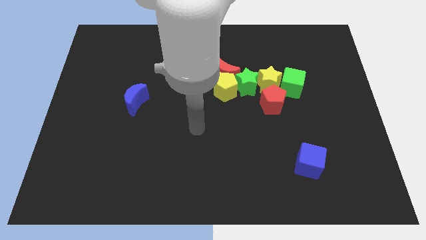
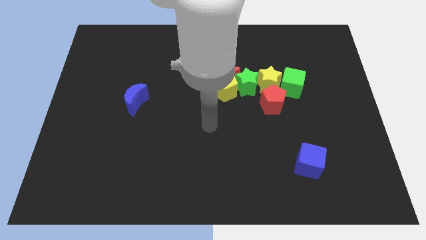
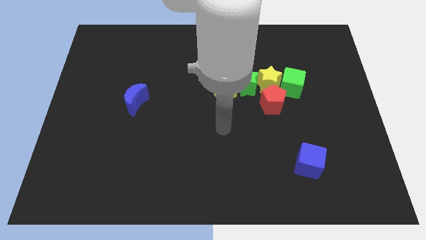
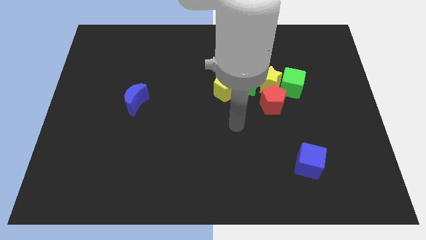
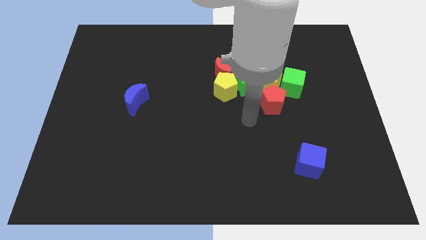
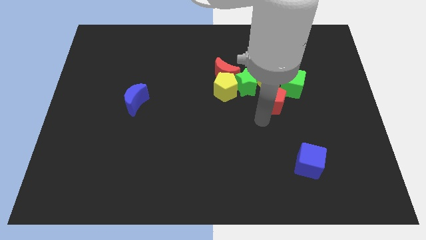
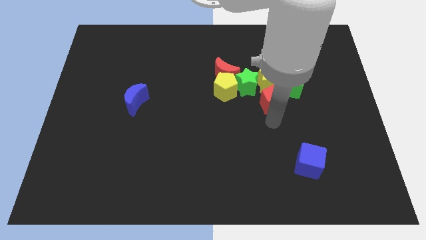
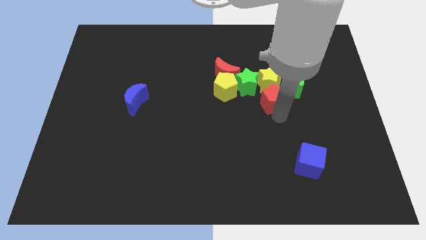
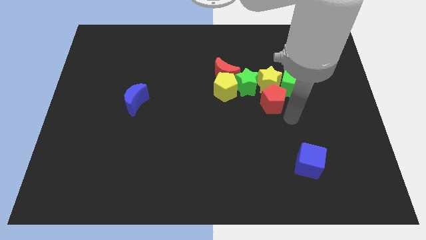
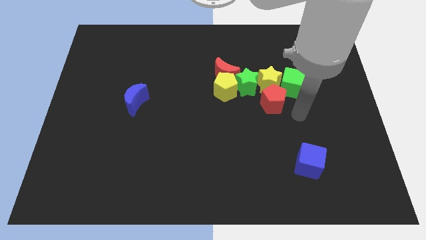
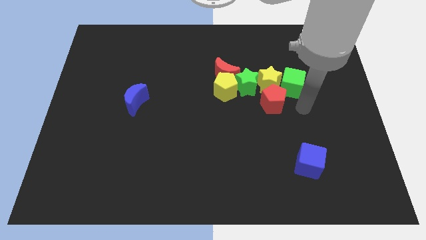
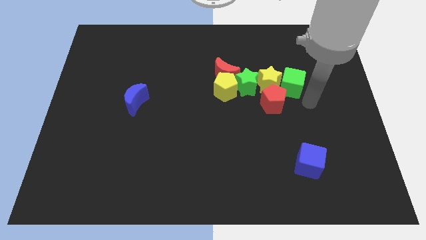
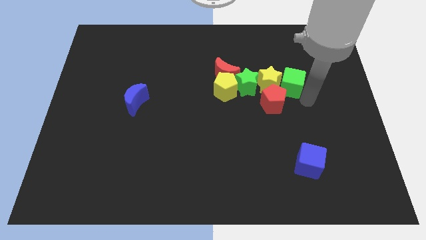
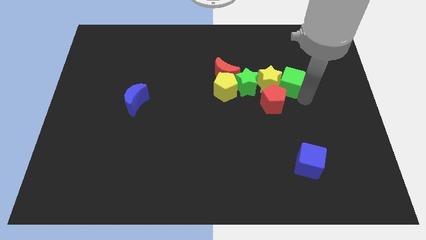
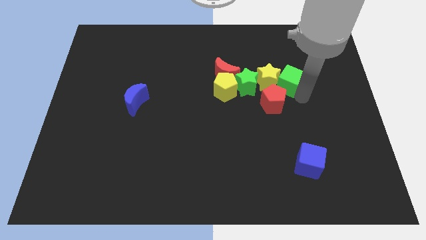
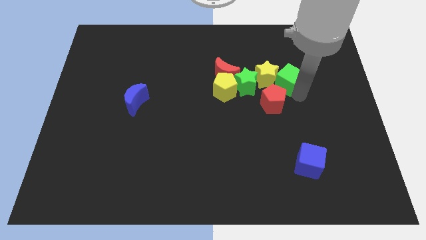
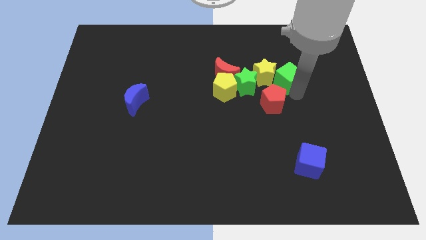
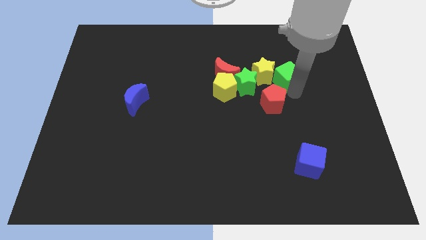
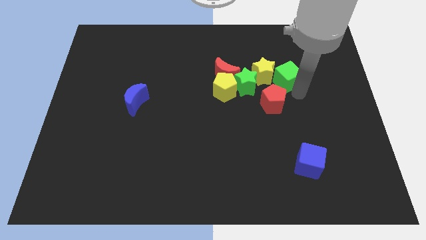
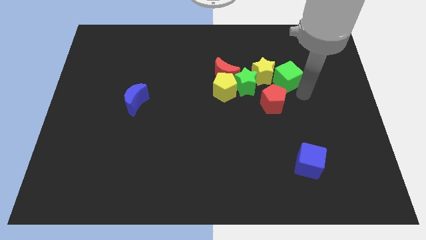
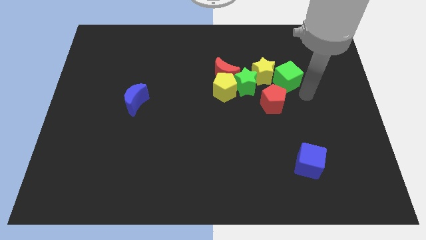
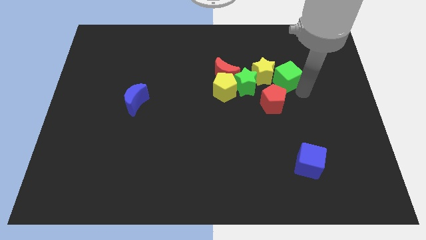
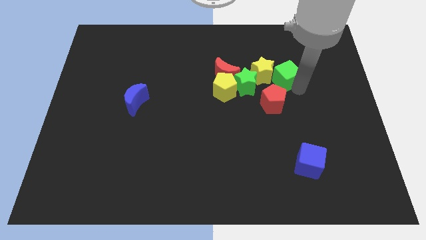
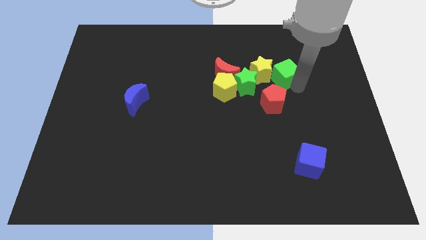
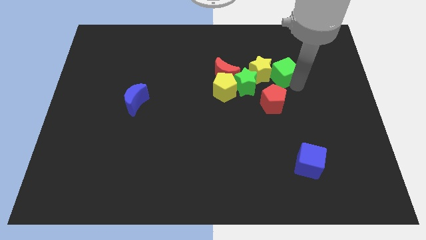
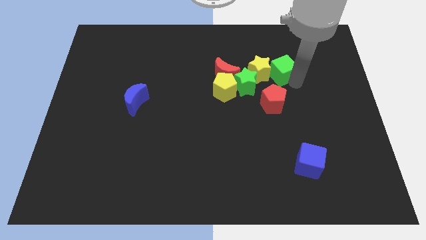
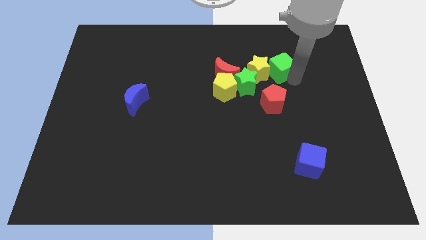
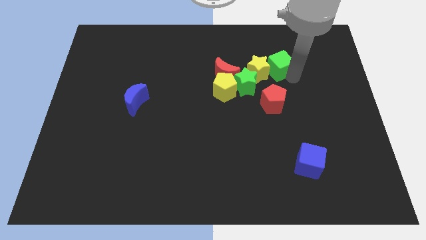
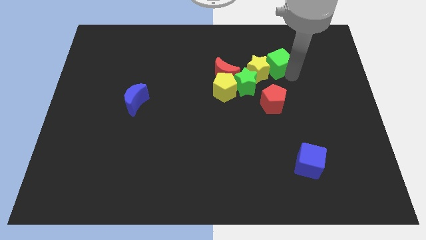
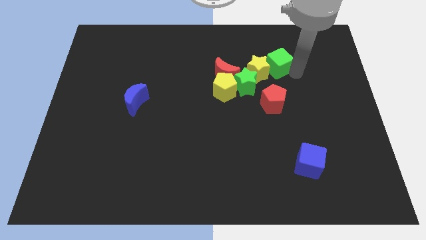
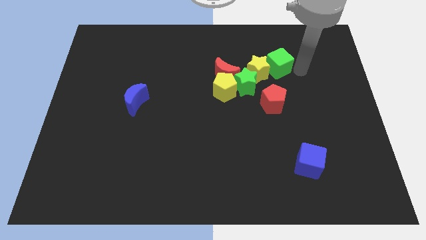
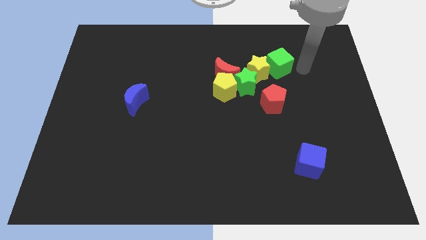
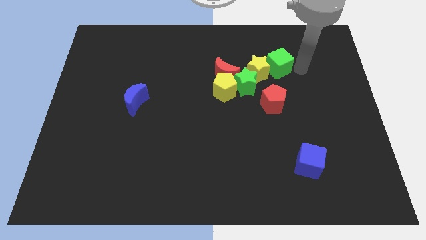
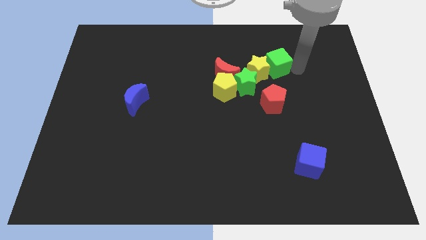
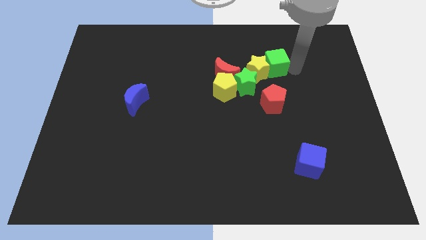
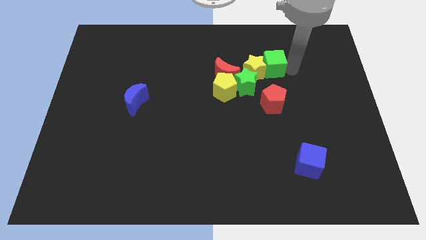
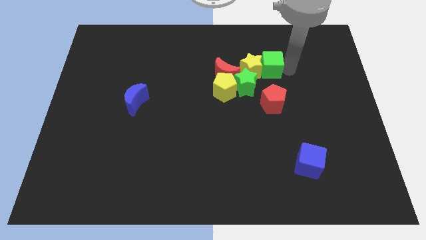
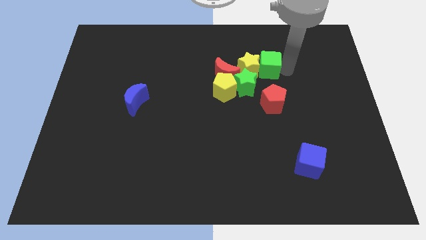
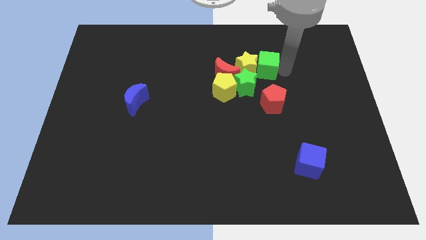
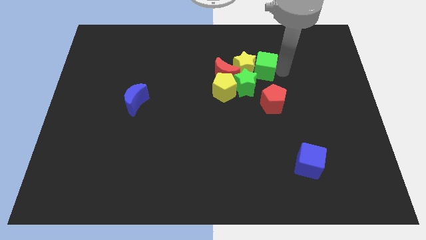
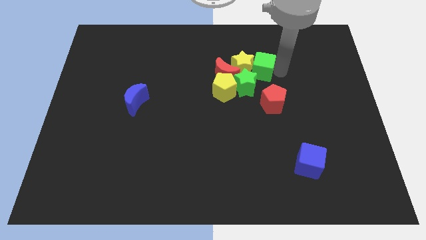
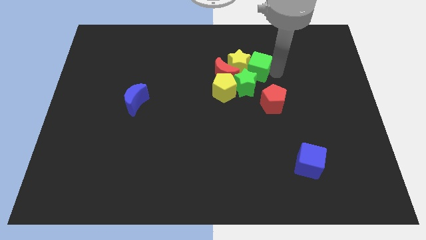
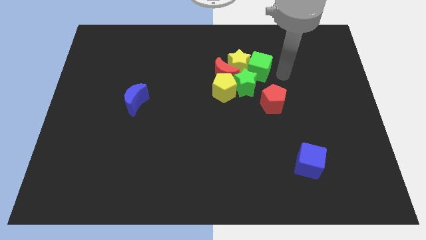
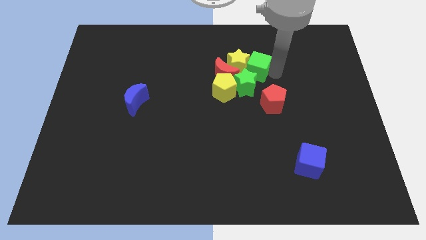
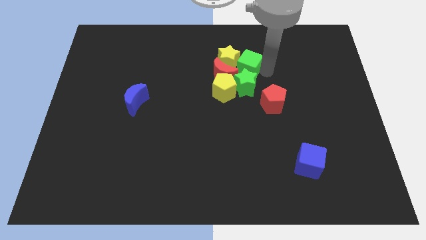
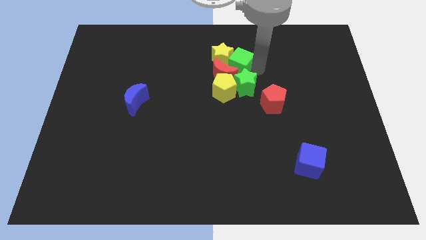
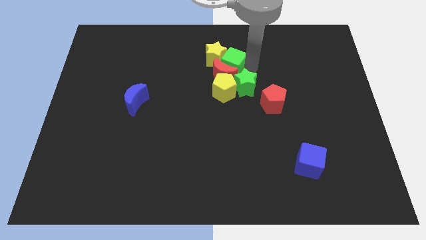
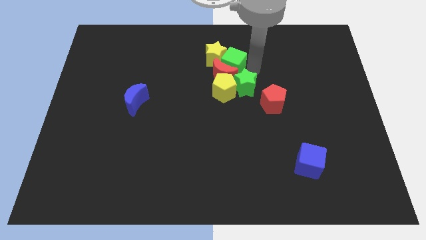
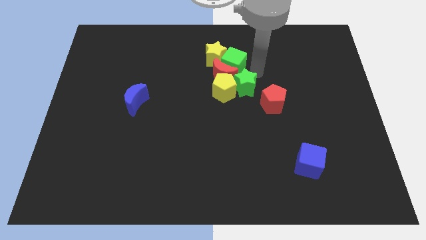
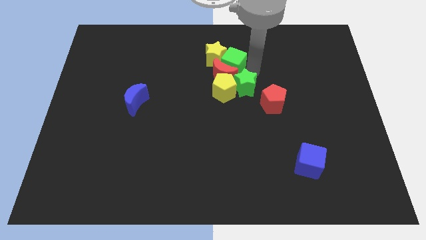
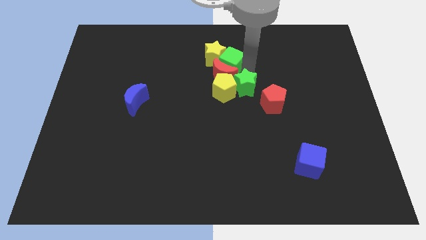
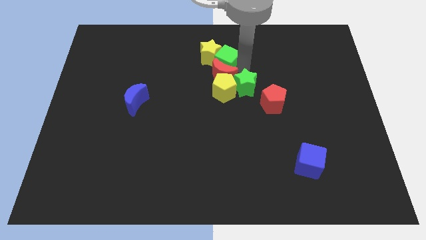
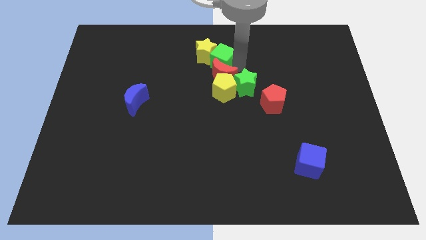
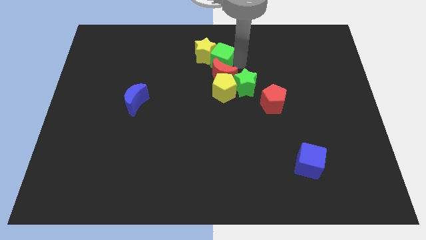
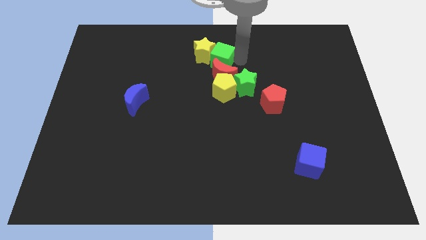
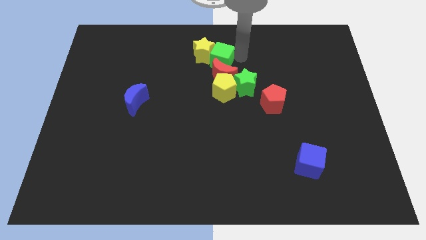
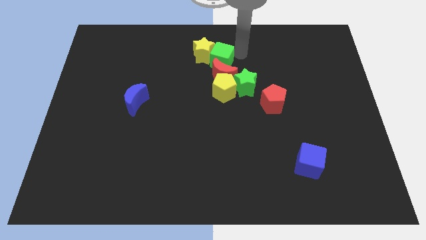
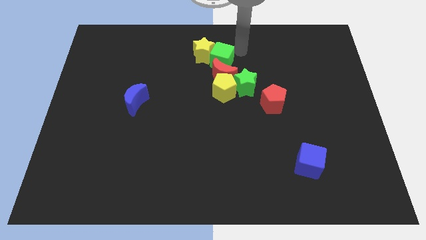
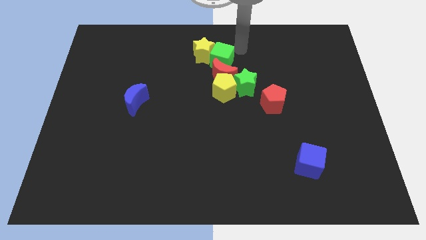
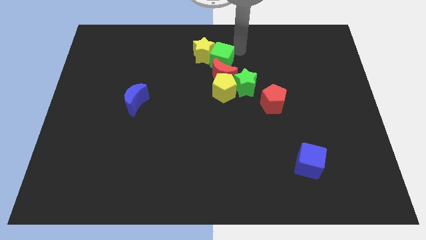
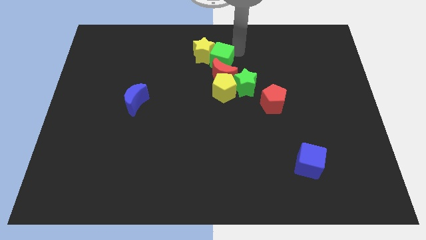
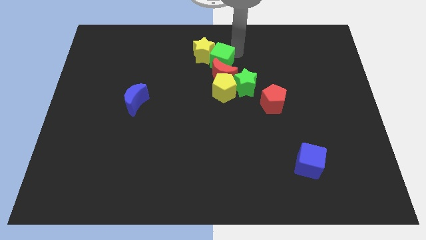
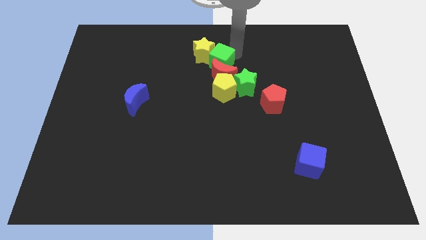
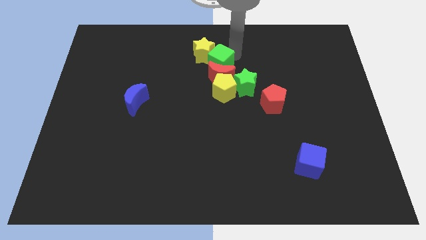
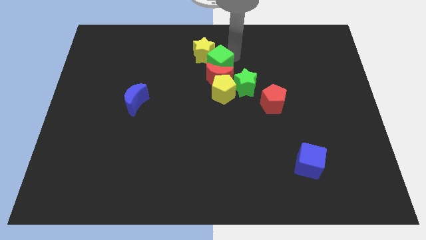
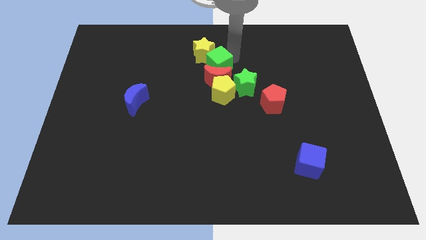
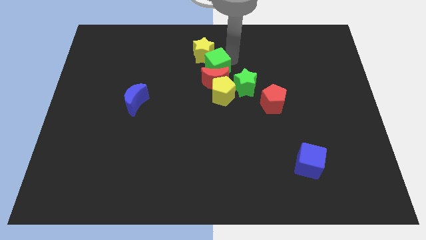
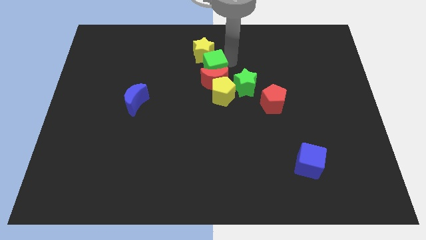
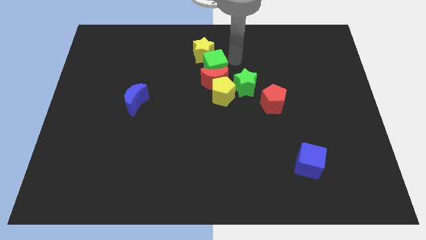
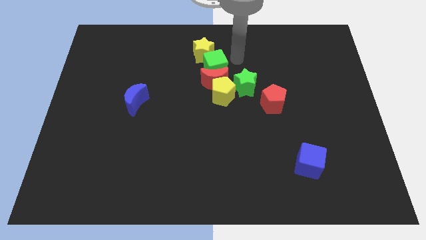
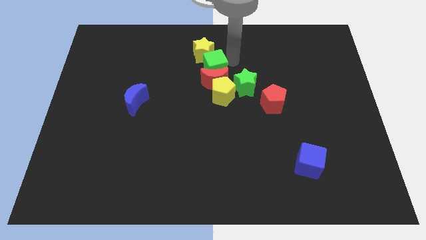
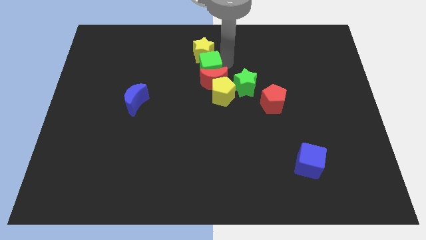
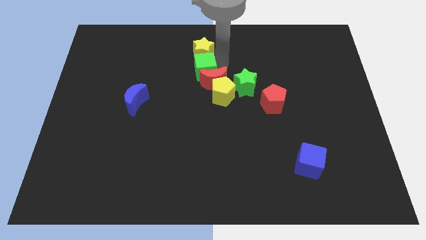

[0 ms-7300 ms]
move the green cube to the left

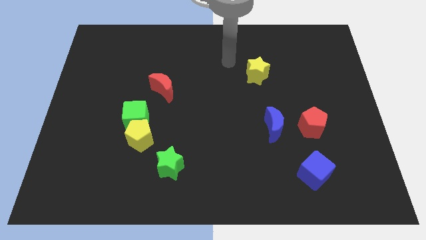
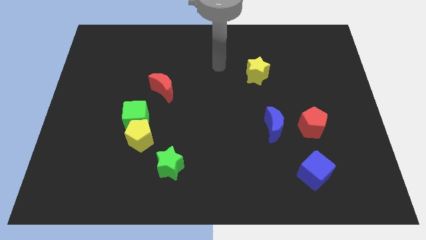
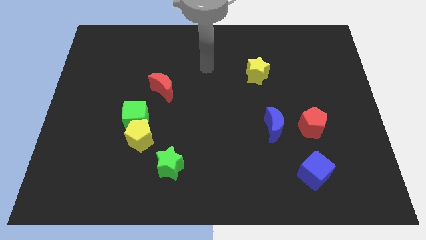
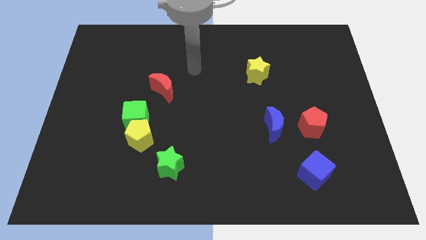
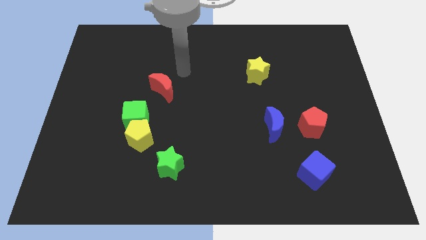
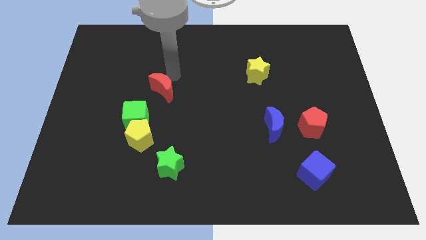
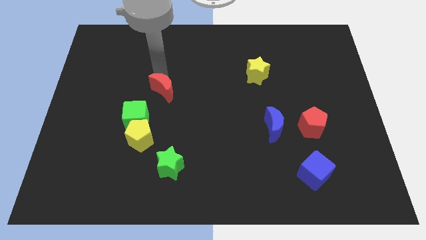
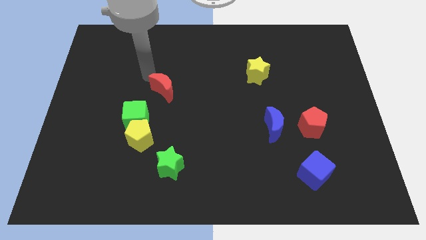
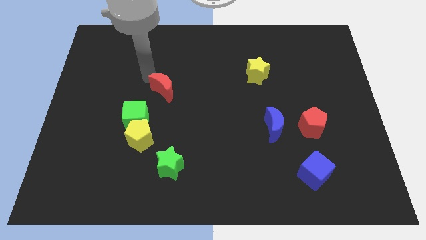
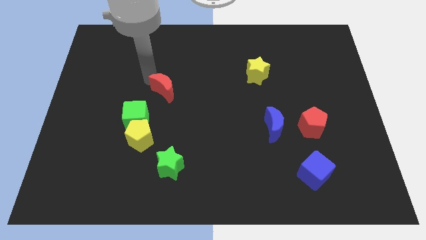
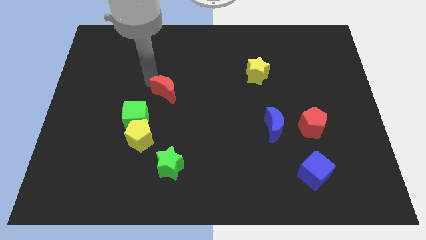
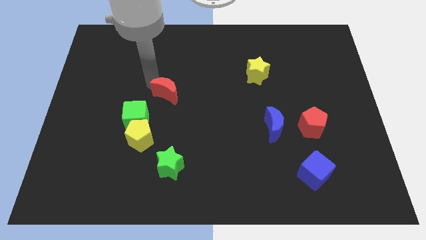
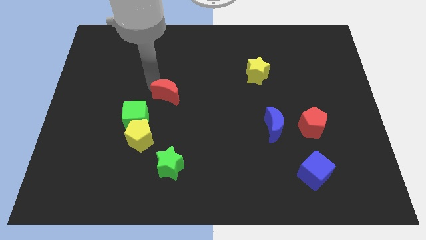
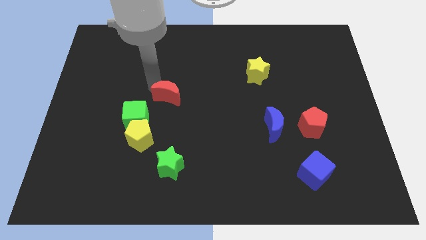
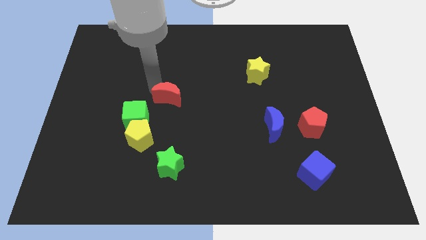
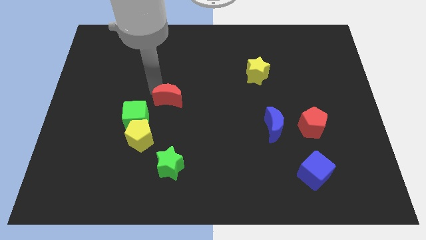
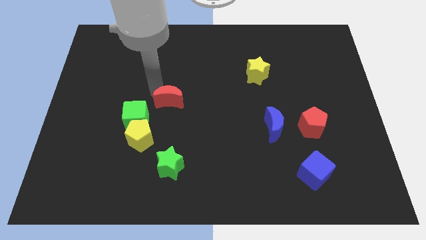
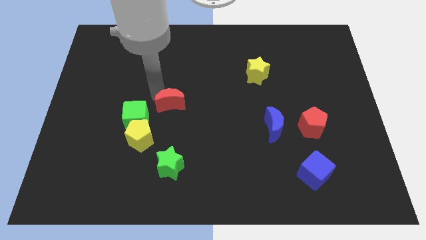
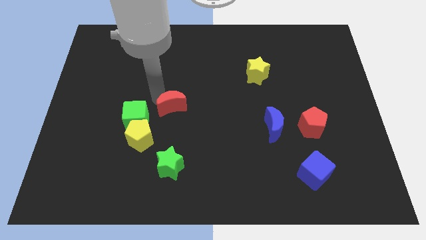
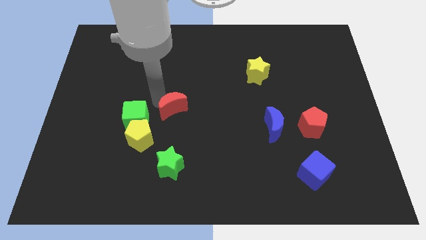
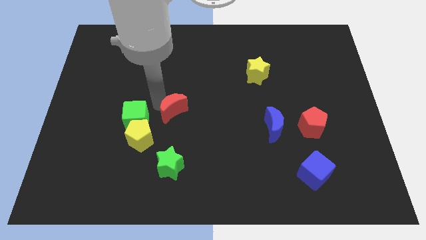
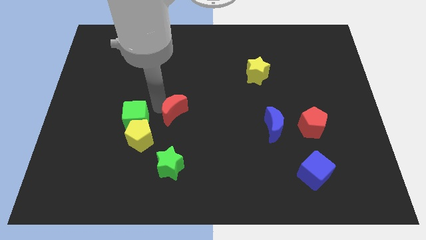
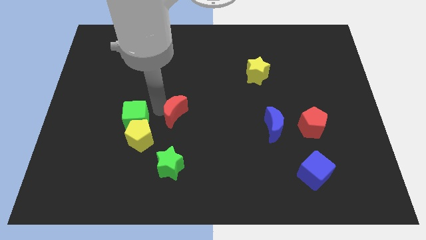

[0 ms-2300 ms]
move the red moon diagonally down and to the right a little
